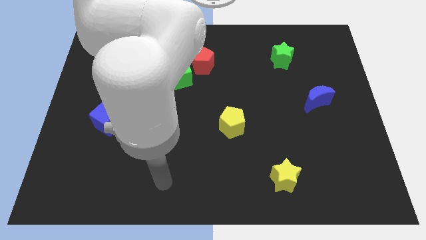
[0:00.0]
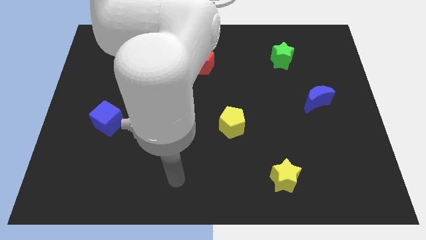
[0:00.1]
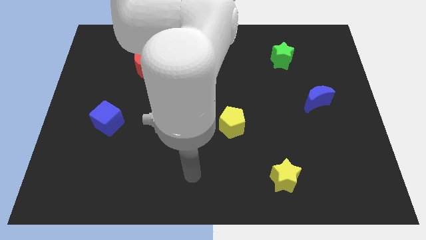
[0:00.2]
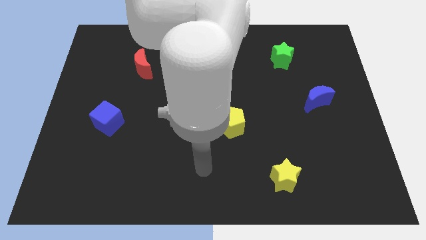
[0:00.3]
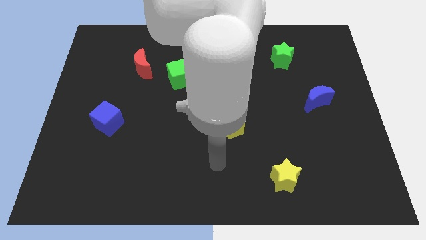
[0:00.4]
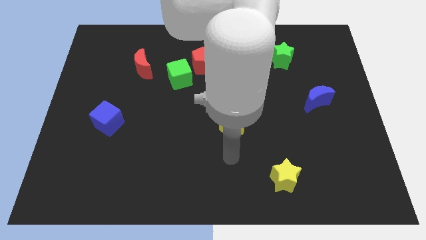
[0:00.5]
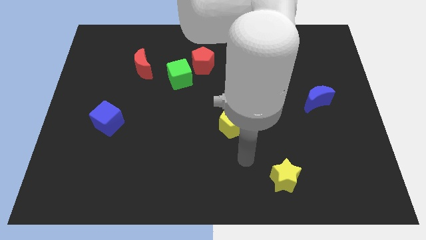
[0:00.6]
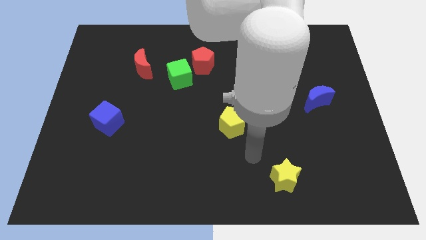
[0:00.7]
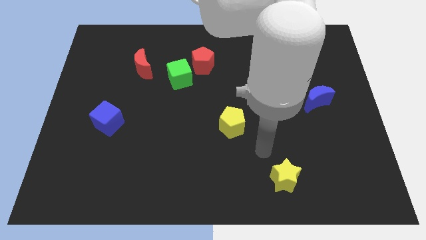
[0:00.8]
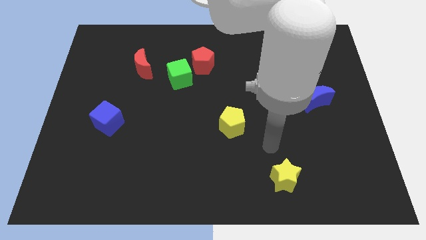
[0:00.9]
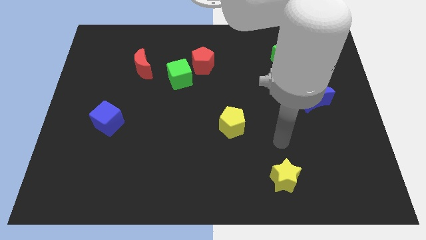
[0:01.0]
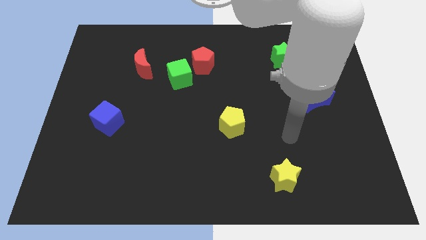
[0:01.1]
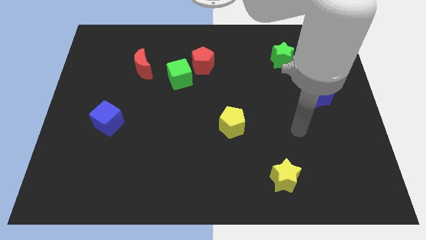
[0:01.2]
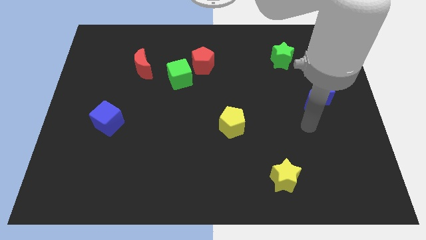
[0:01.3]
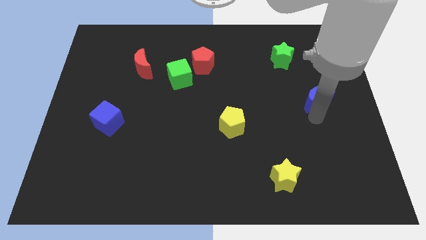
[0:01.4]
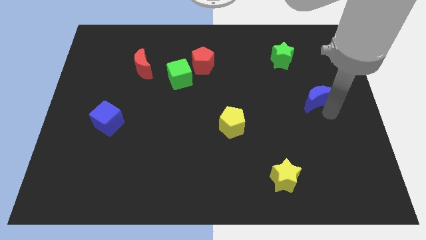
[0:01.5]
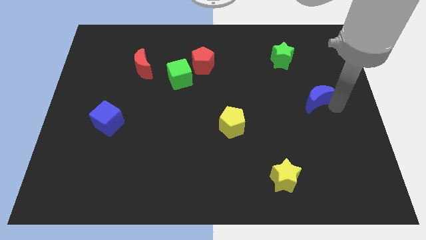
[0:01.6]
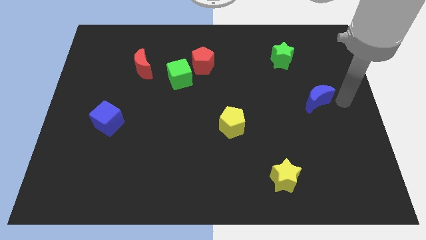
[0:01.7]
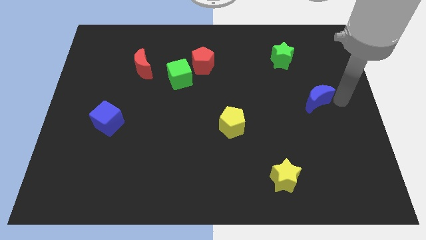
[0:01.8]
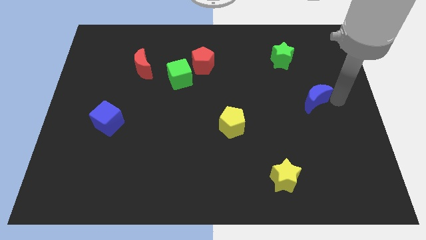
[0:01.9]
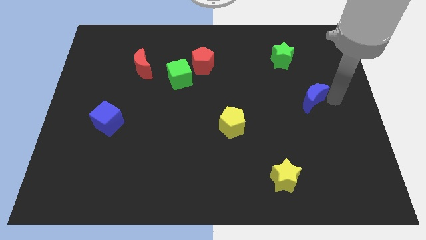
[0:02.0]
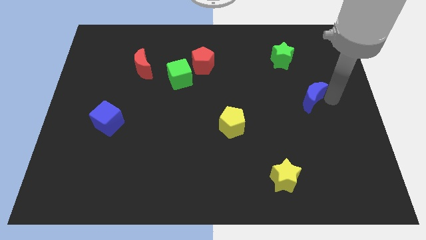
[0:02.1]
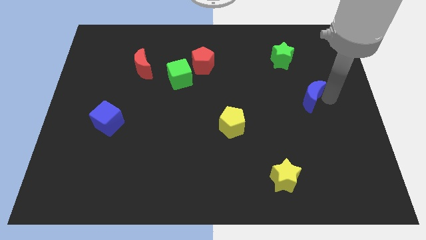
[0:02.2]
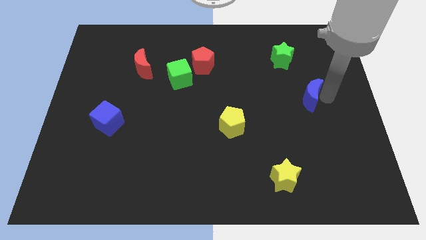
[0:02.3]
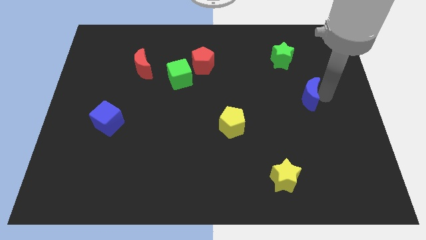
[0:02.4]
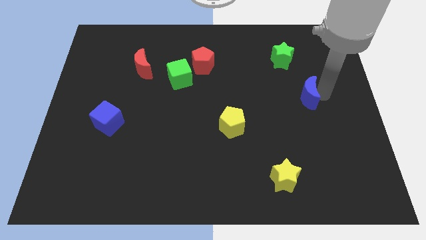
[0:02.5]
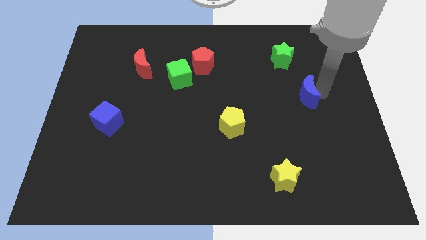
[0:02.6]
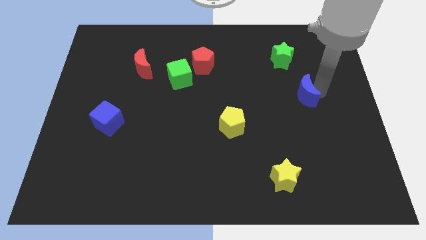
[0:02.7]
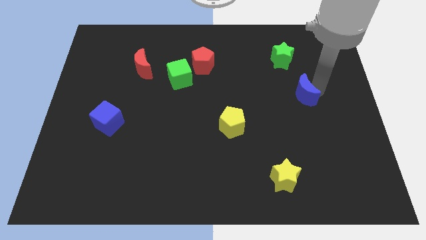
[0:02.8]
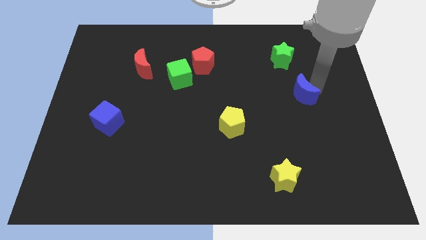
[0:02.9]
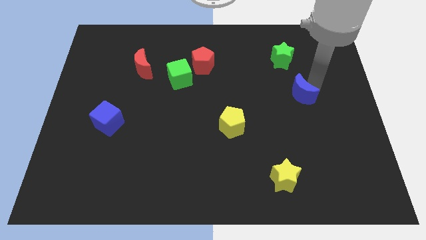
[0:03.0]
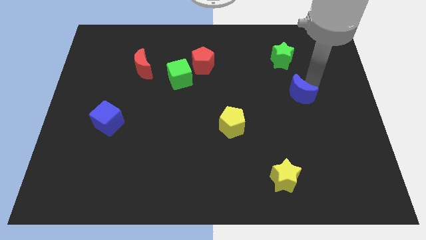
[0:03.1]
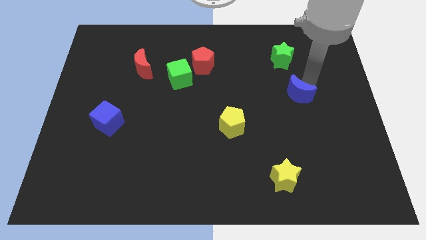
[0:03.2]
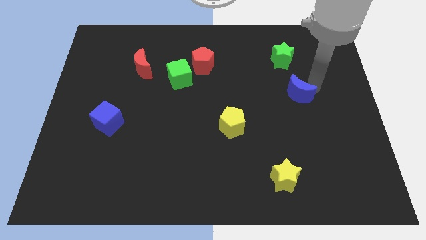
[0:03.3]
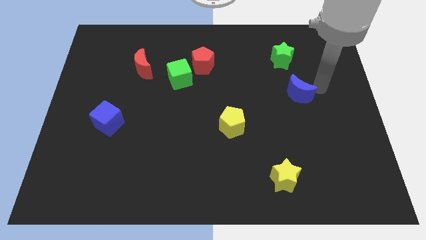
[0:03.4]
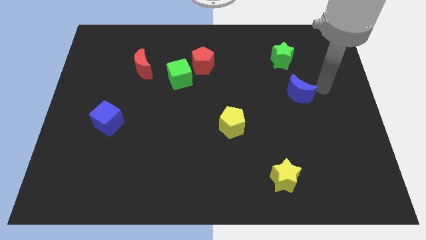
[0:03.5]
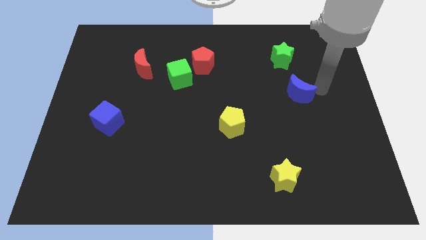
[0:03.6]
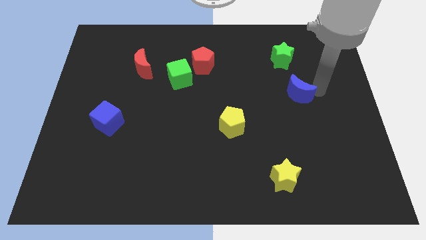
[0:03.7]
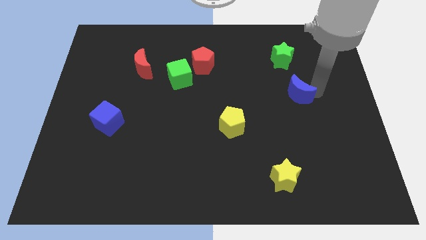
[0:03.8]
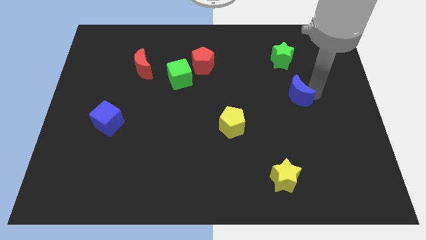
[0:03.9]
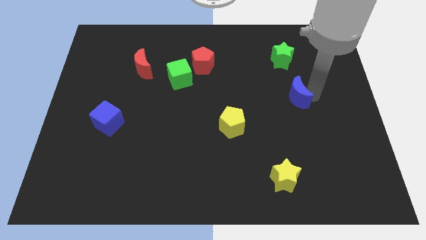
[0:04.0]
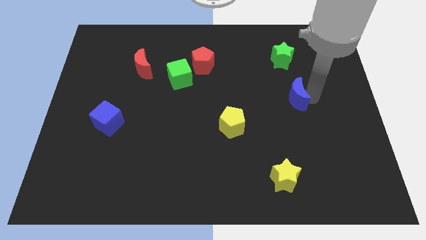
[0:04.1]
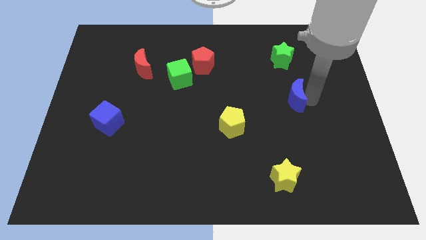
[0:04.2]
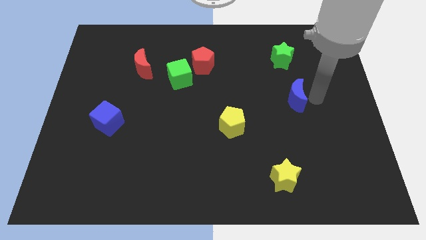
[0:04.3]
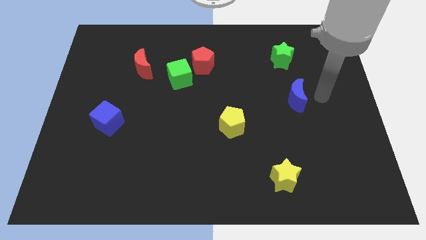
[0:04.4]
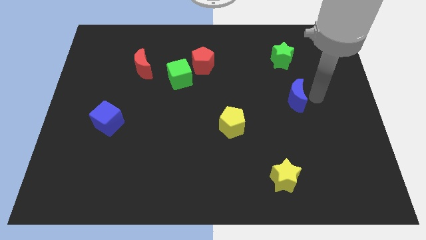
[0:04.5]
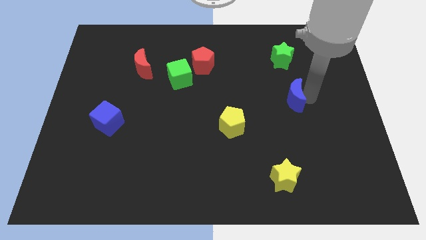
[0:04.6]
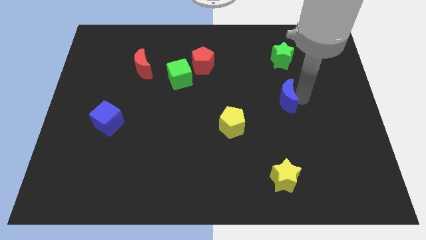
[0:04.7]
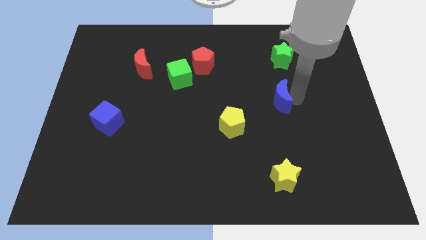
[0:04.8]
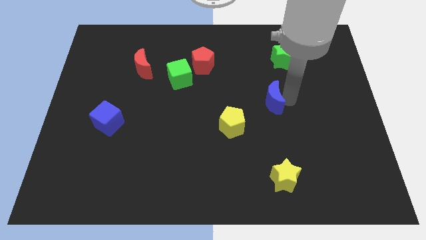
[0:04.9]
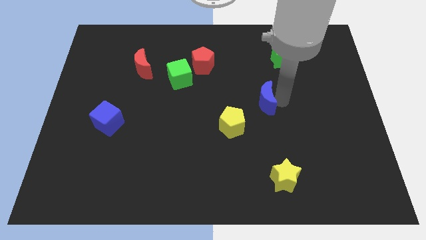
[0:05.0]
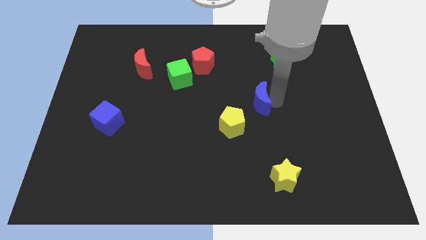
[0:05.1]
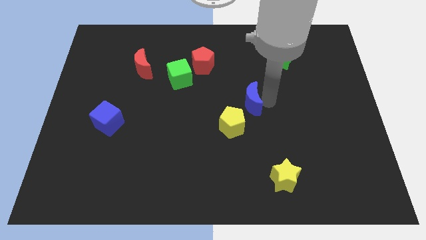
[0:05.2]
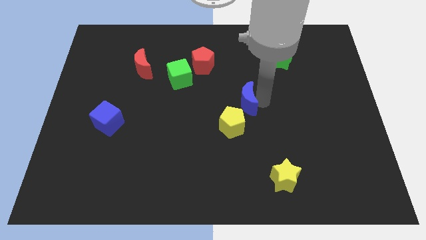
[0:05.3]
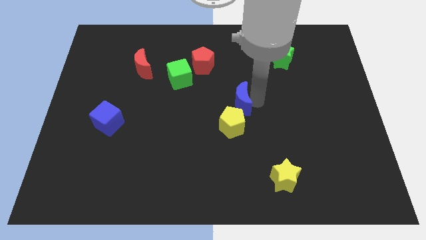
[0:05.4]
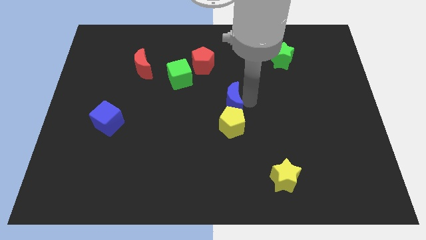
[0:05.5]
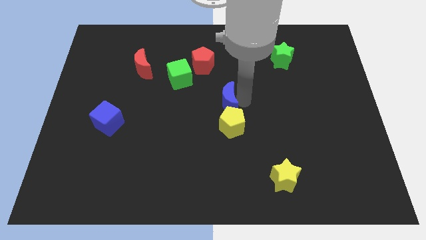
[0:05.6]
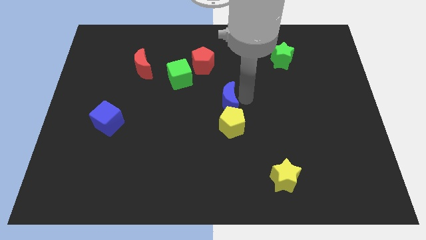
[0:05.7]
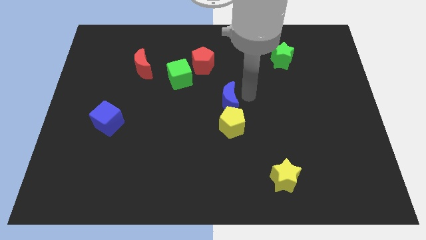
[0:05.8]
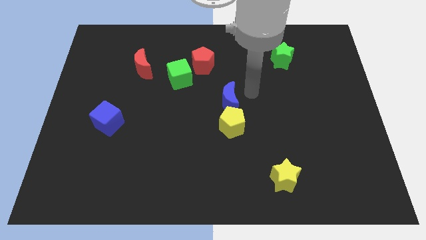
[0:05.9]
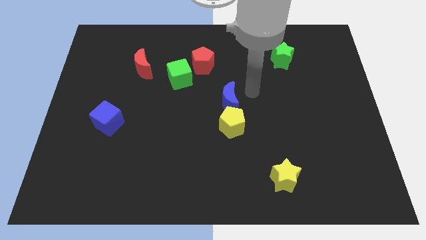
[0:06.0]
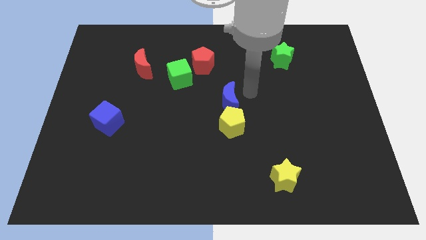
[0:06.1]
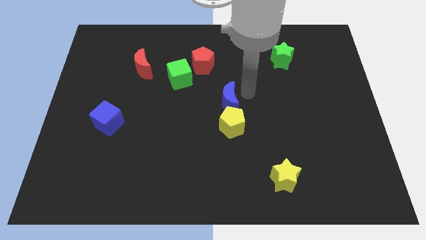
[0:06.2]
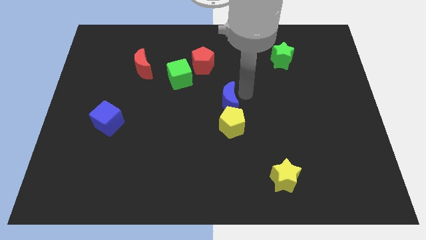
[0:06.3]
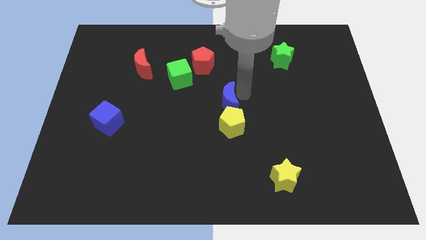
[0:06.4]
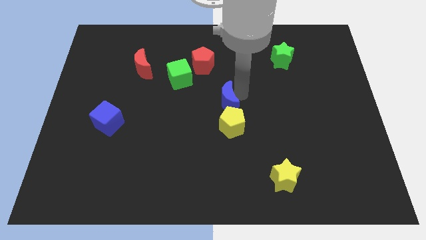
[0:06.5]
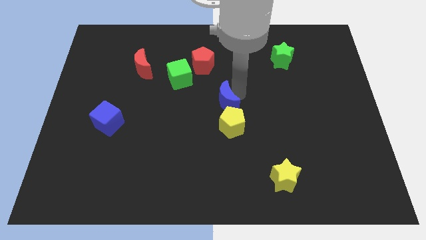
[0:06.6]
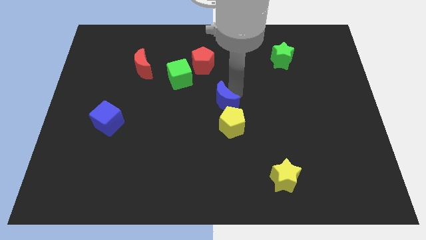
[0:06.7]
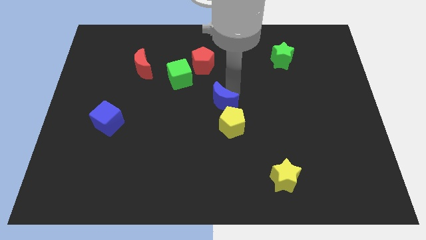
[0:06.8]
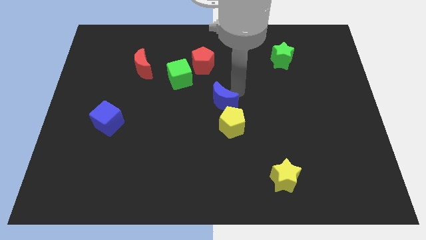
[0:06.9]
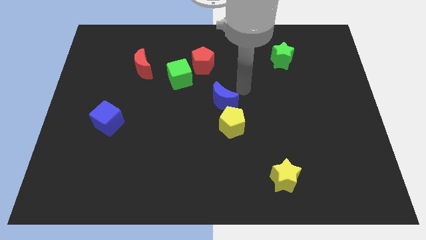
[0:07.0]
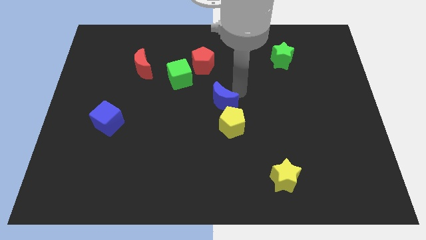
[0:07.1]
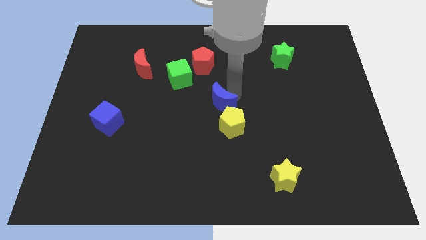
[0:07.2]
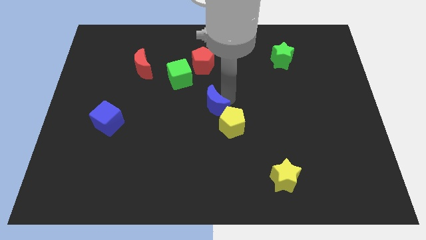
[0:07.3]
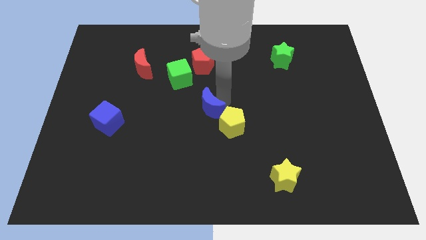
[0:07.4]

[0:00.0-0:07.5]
move the blue moon to the left of the yellow pentagon
